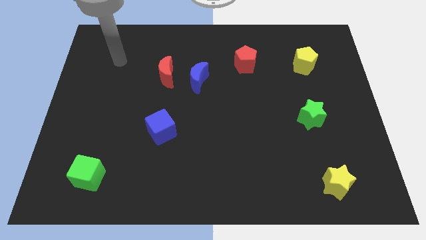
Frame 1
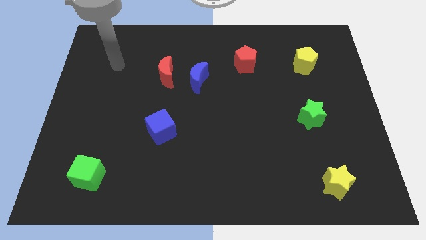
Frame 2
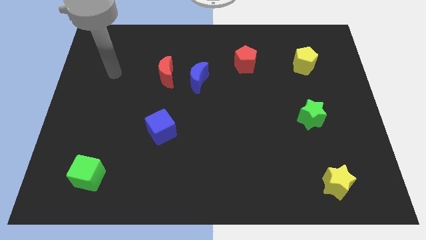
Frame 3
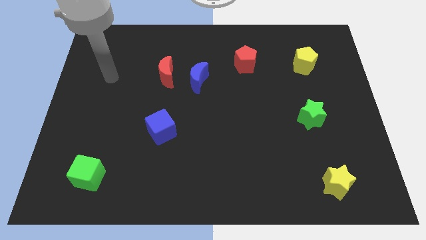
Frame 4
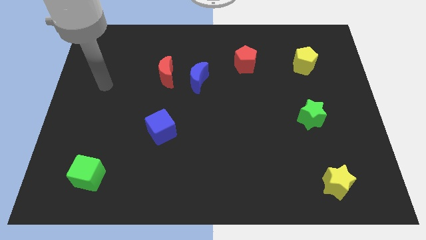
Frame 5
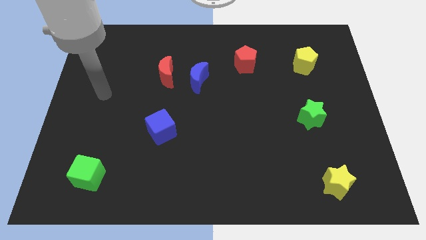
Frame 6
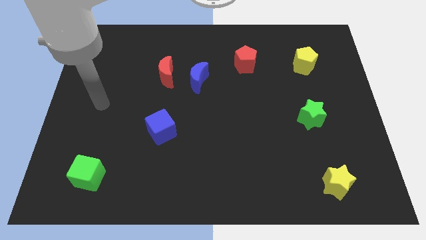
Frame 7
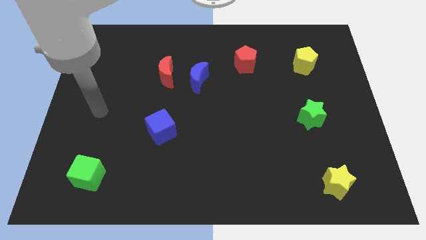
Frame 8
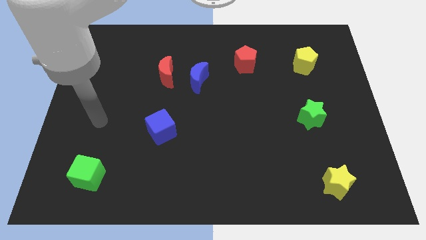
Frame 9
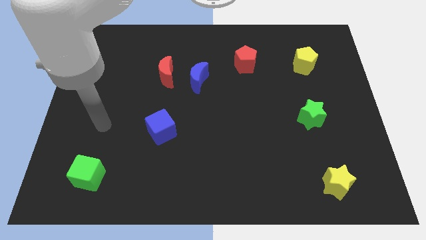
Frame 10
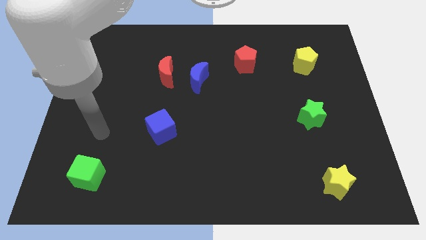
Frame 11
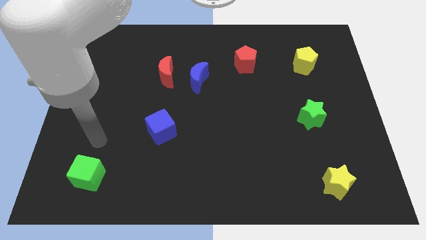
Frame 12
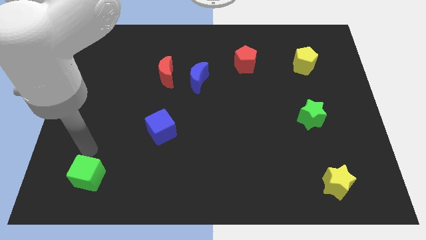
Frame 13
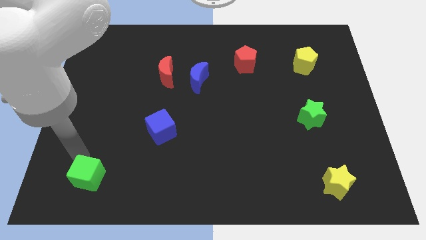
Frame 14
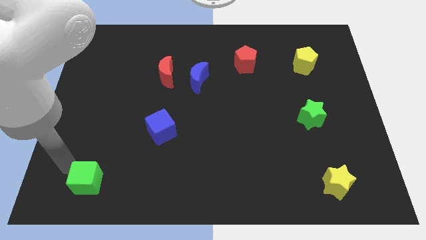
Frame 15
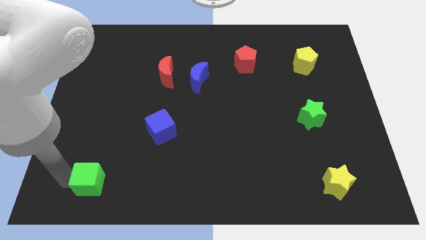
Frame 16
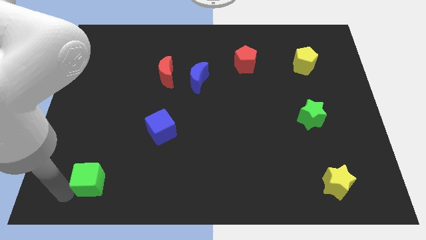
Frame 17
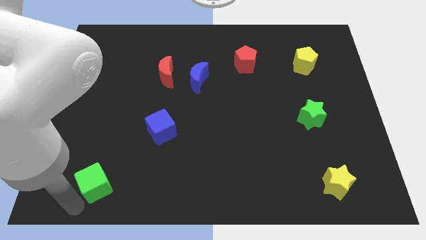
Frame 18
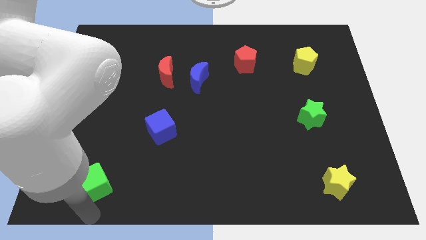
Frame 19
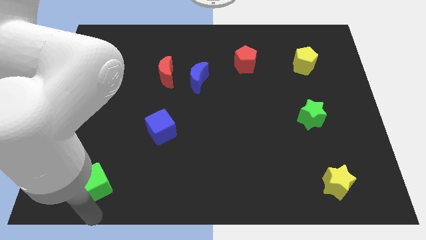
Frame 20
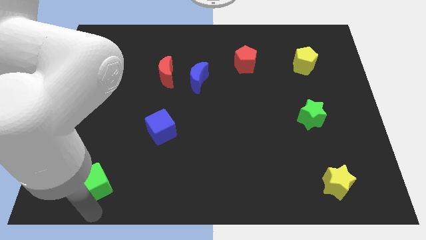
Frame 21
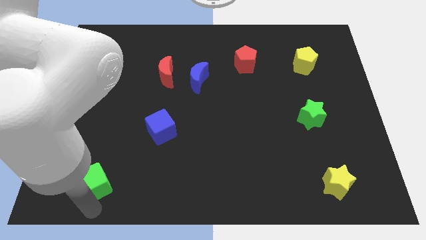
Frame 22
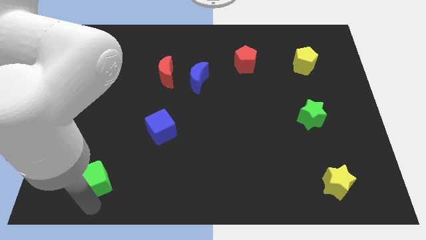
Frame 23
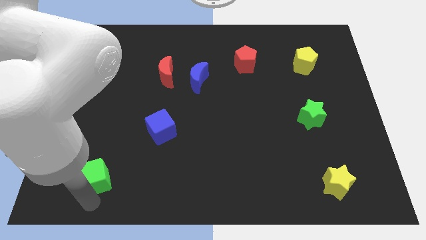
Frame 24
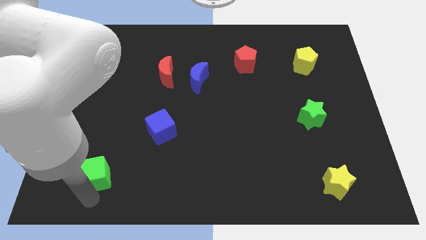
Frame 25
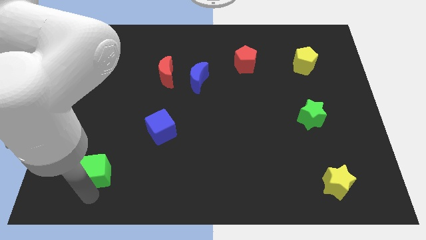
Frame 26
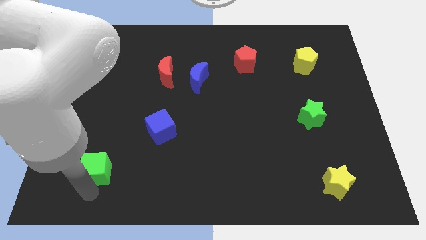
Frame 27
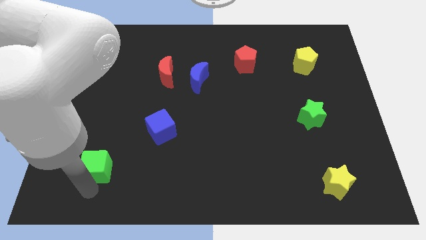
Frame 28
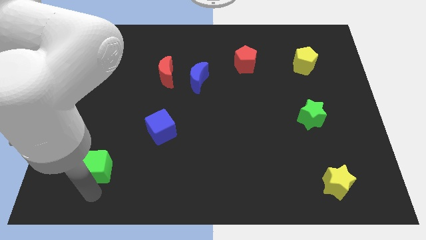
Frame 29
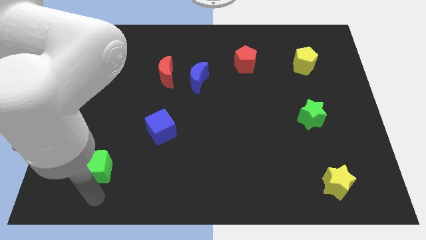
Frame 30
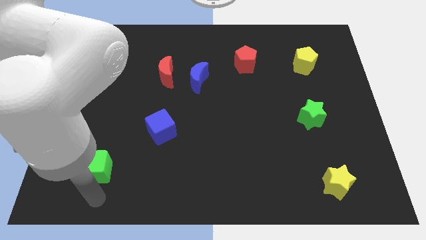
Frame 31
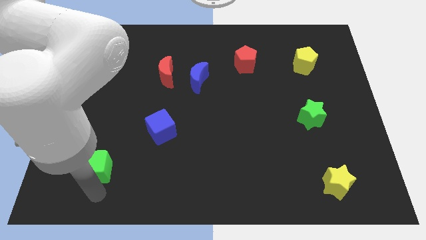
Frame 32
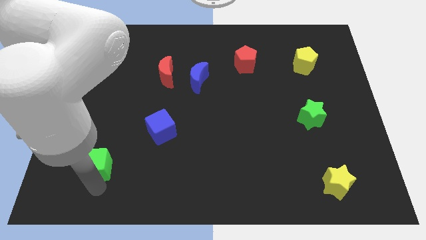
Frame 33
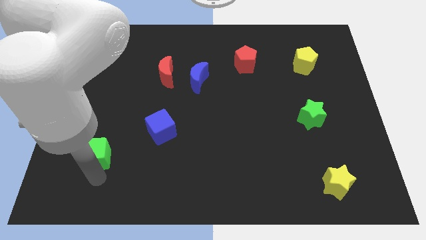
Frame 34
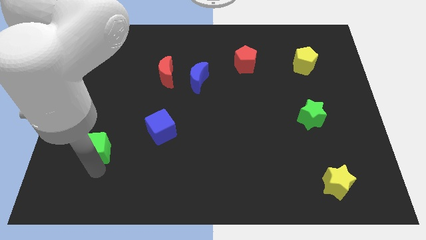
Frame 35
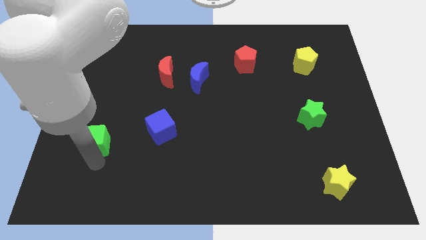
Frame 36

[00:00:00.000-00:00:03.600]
slightly slide the green cube up

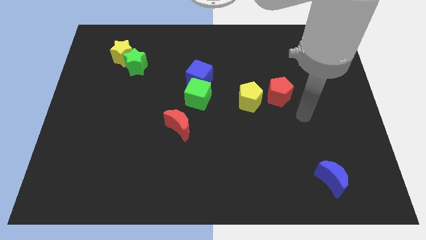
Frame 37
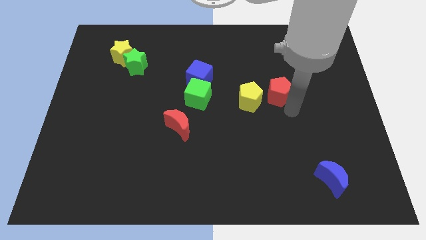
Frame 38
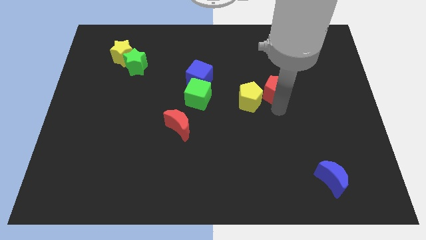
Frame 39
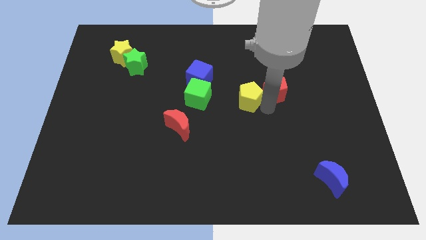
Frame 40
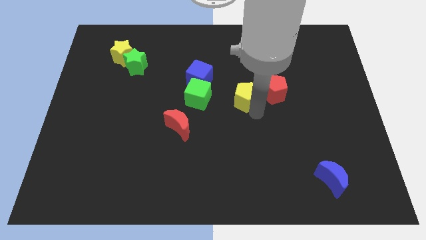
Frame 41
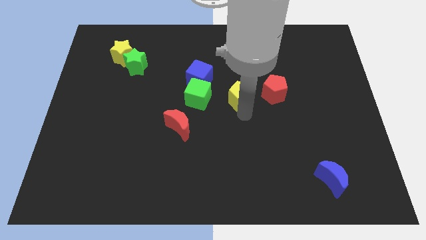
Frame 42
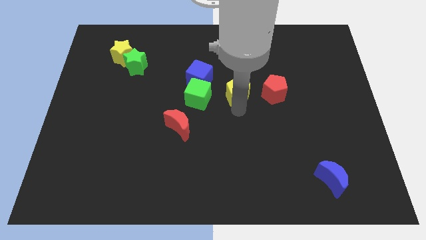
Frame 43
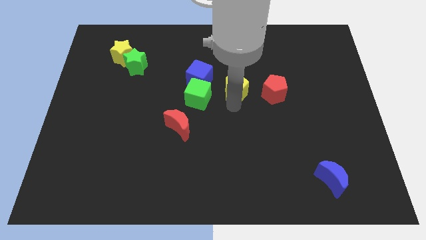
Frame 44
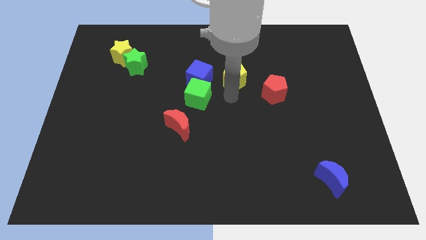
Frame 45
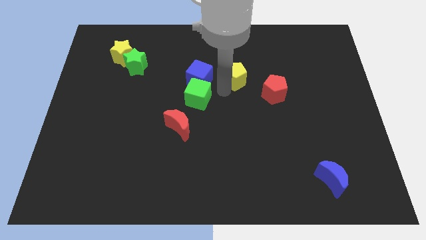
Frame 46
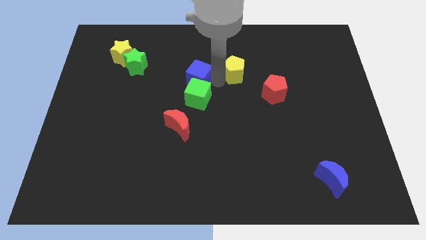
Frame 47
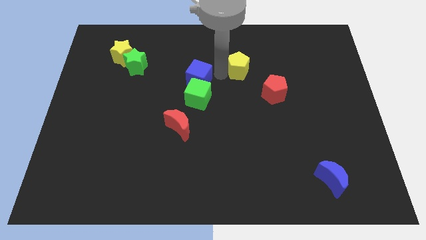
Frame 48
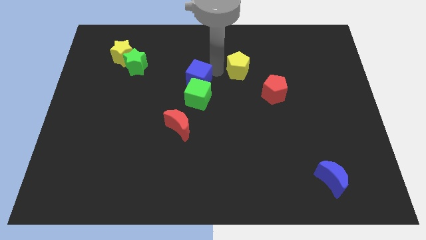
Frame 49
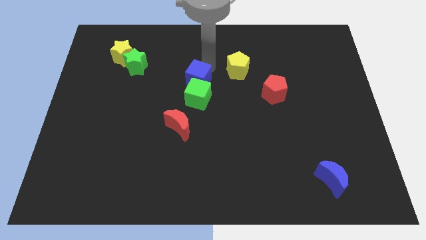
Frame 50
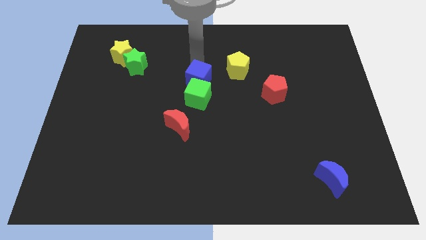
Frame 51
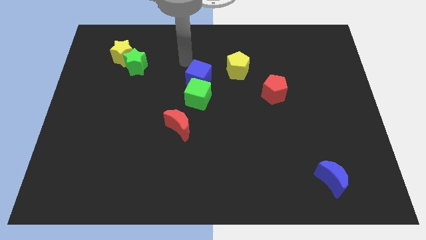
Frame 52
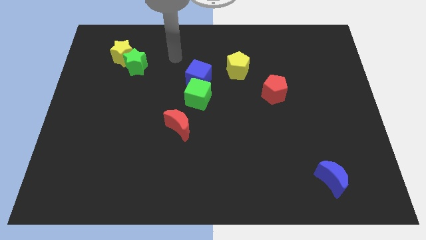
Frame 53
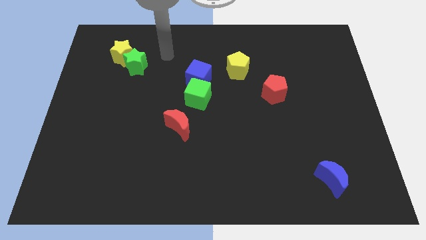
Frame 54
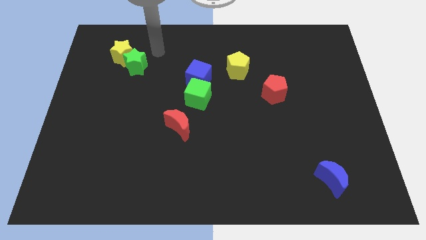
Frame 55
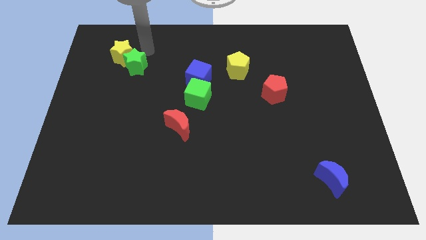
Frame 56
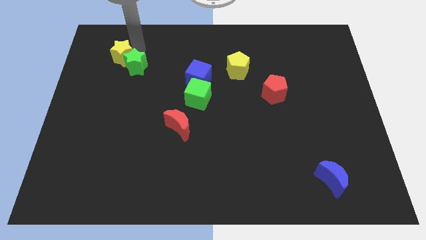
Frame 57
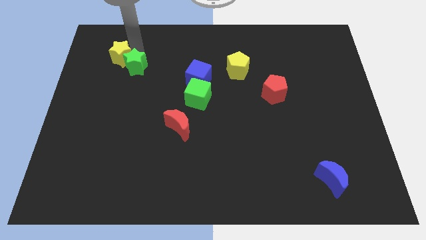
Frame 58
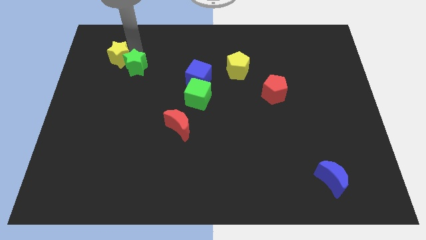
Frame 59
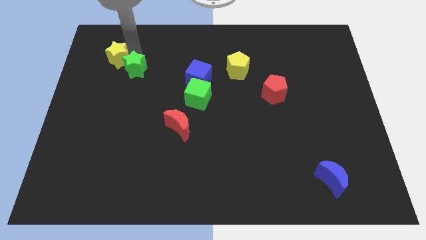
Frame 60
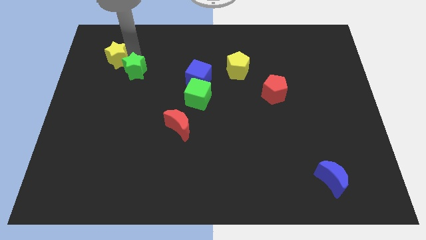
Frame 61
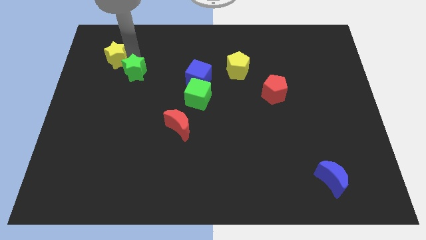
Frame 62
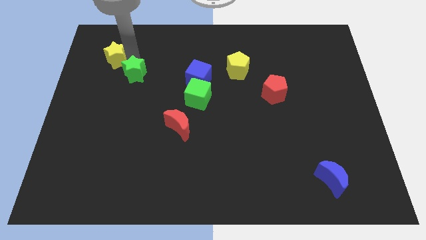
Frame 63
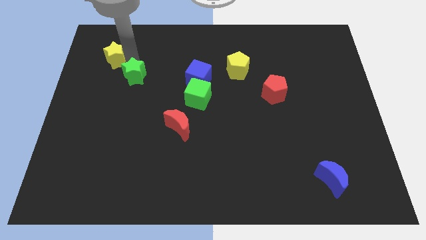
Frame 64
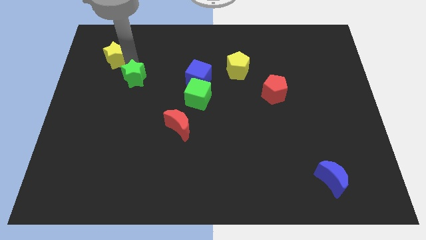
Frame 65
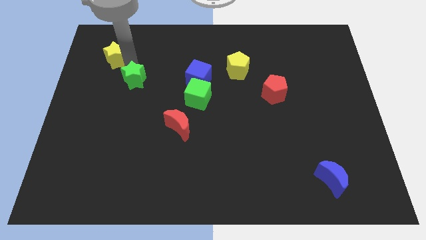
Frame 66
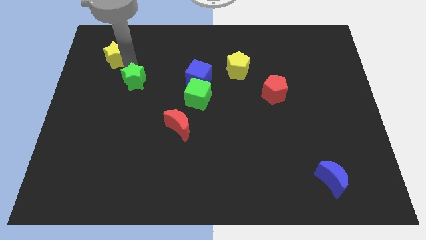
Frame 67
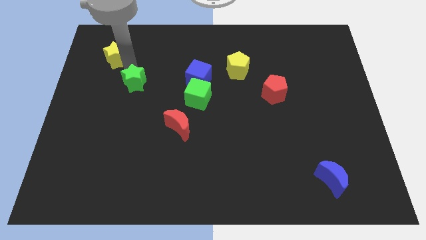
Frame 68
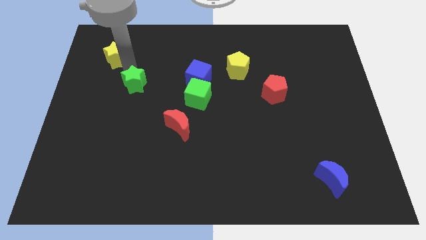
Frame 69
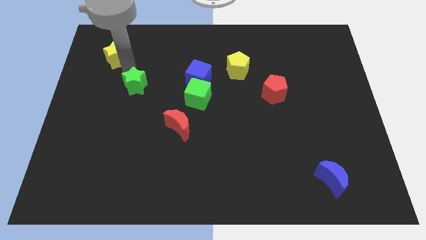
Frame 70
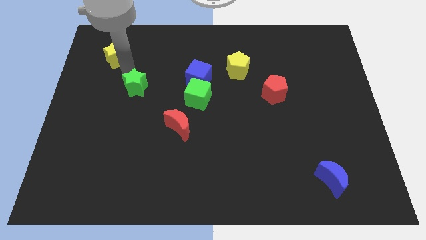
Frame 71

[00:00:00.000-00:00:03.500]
move the green star a bit downwards

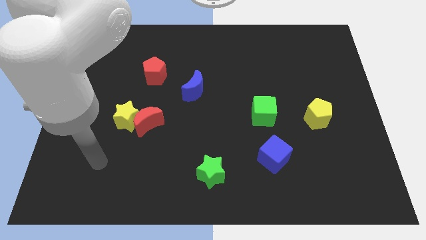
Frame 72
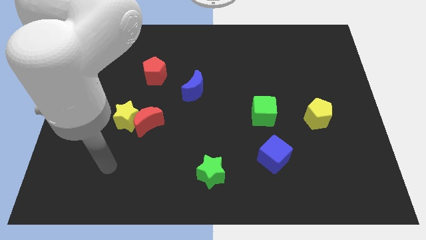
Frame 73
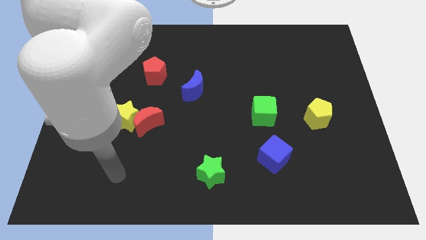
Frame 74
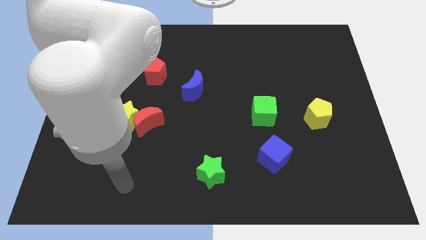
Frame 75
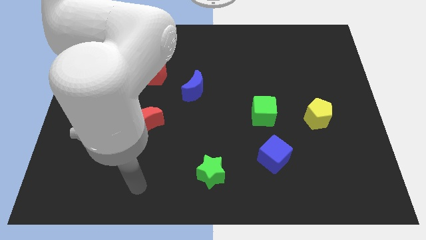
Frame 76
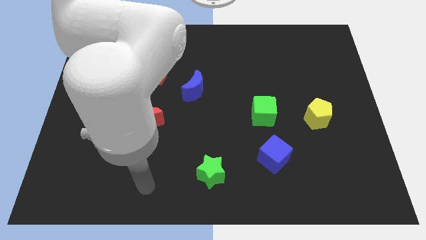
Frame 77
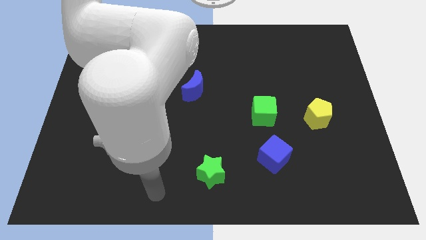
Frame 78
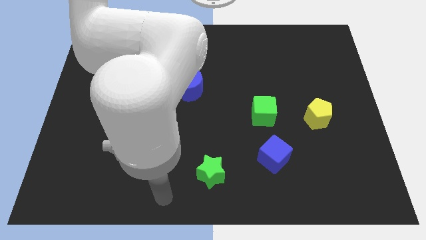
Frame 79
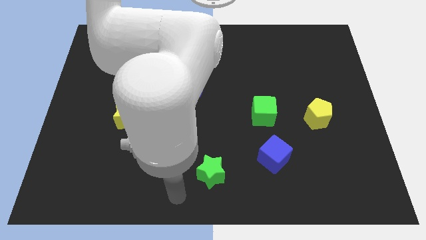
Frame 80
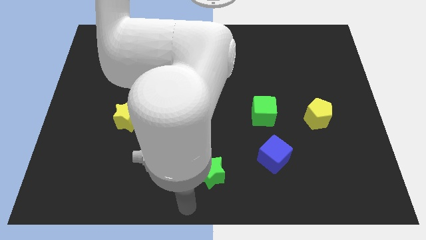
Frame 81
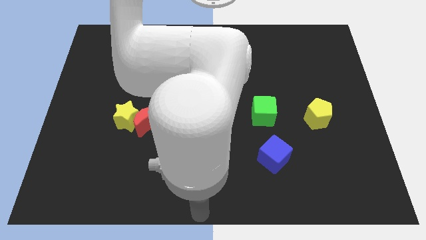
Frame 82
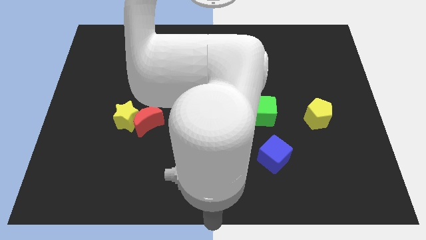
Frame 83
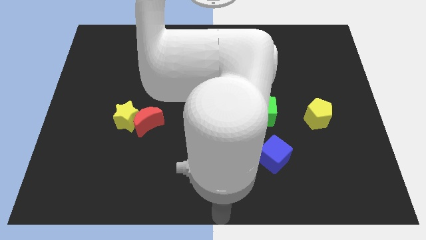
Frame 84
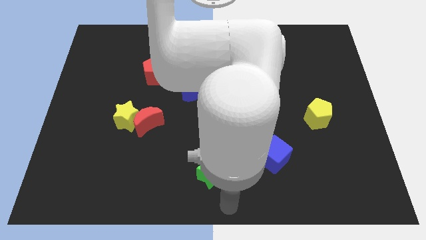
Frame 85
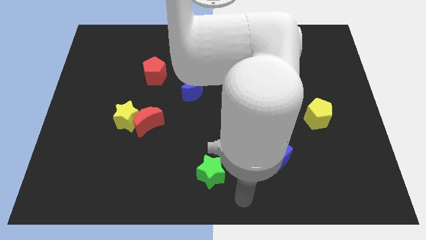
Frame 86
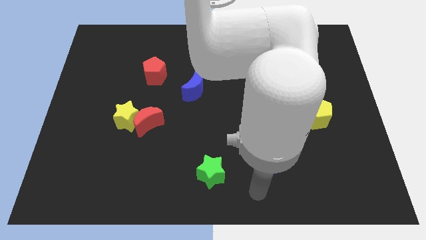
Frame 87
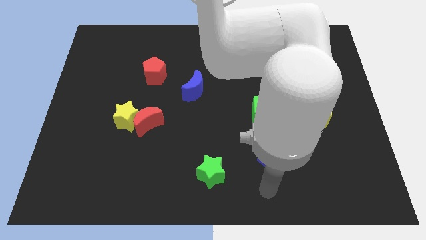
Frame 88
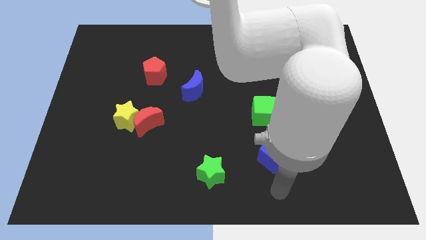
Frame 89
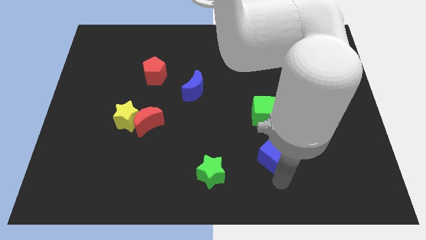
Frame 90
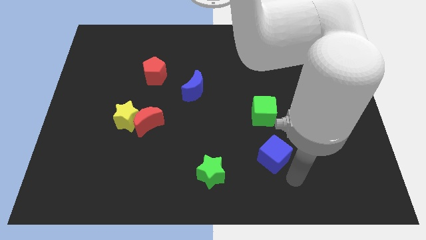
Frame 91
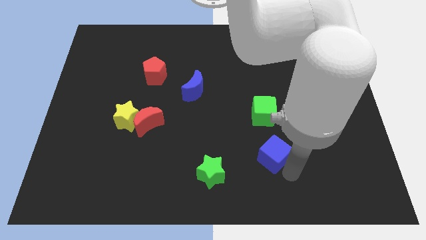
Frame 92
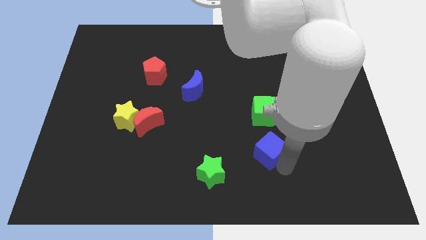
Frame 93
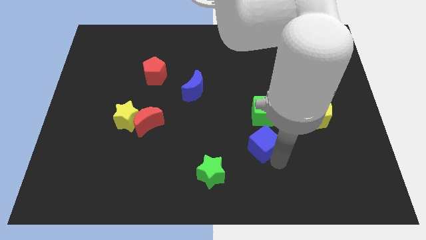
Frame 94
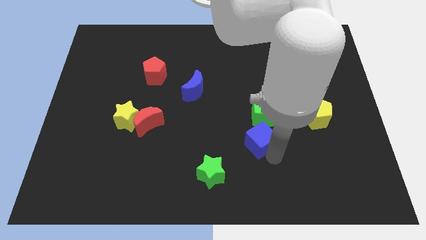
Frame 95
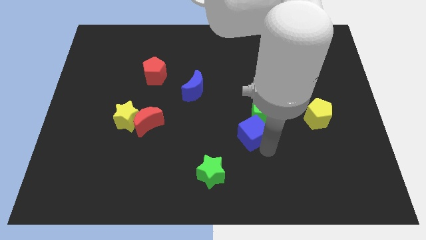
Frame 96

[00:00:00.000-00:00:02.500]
move the blue cube a little bit upwards and left
